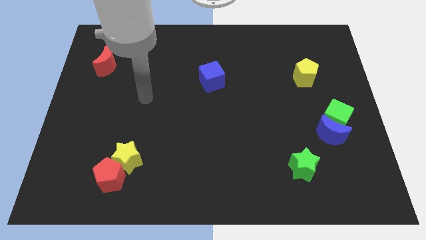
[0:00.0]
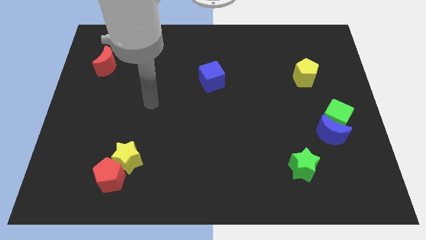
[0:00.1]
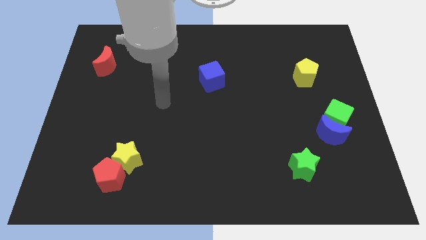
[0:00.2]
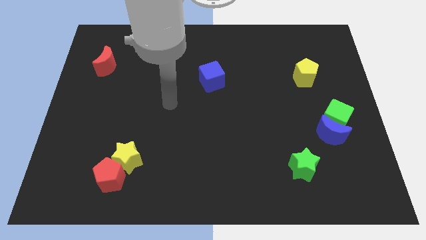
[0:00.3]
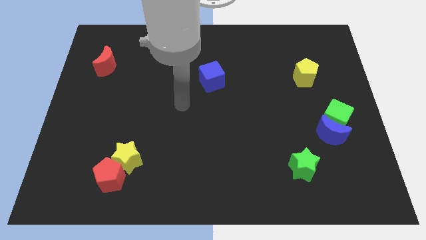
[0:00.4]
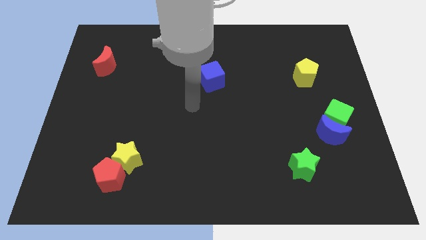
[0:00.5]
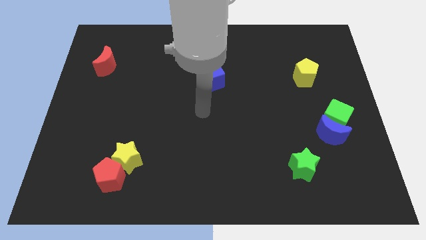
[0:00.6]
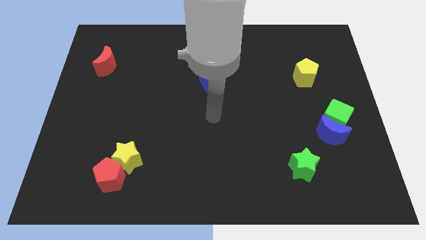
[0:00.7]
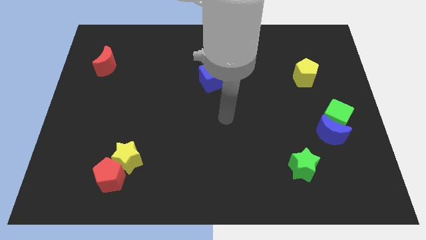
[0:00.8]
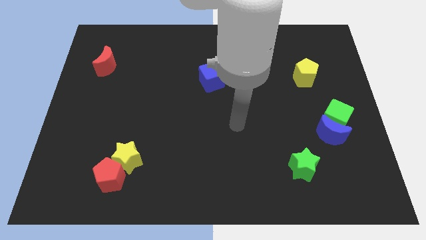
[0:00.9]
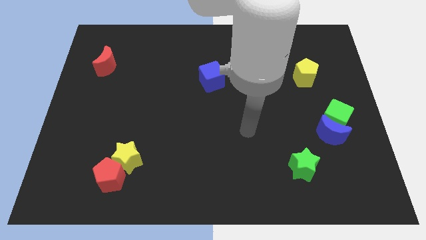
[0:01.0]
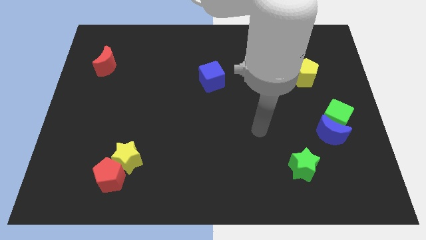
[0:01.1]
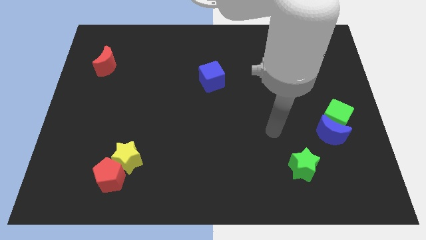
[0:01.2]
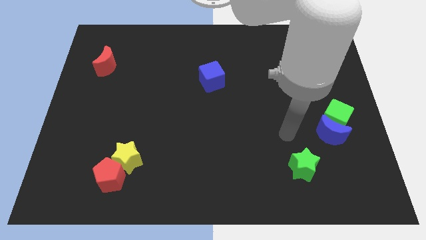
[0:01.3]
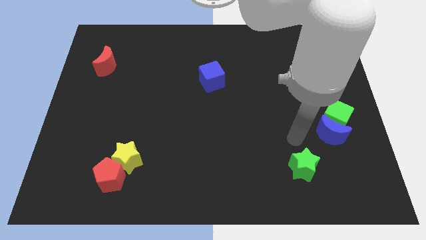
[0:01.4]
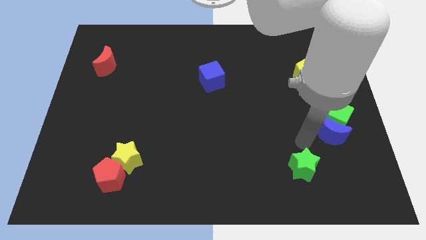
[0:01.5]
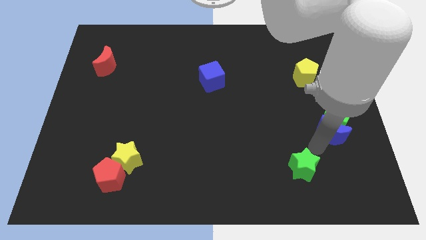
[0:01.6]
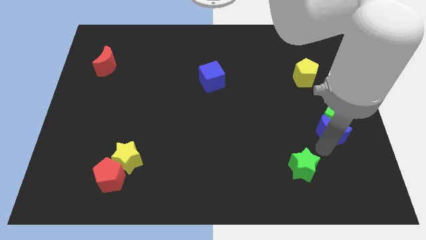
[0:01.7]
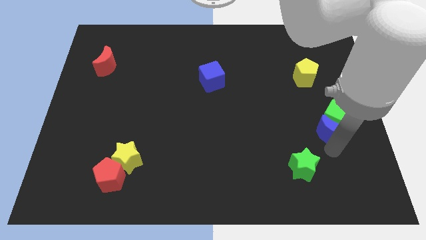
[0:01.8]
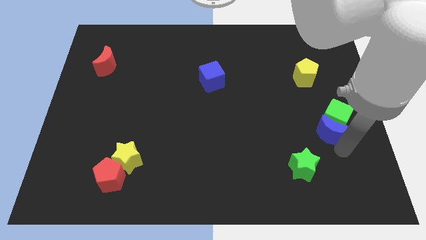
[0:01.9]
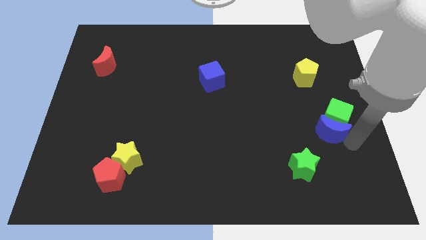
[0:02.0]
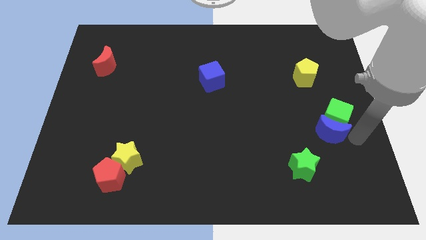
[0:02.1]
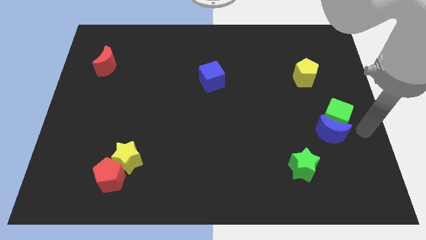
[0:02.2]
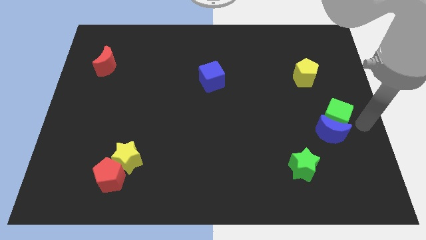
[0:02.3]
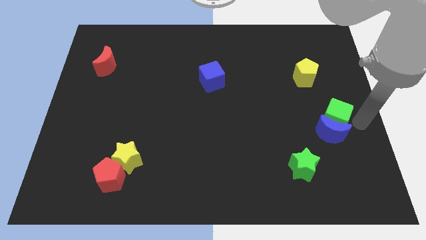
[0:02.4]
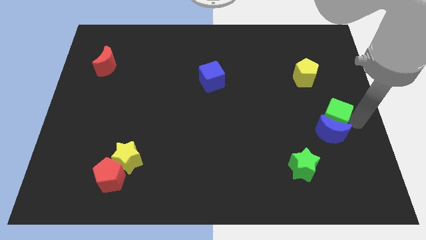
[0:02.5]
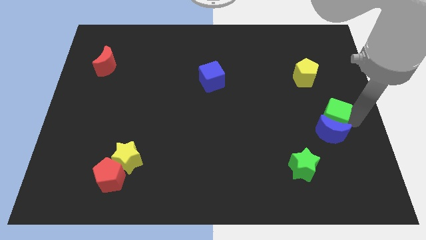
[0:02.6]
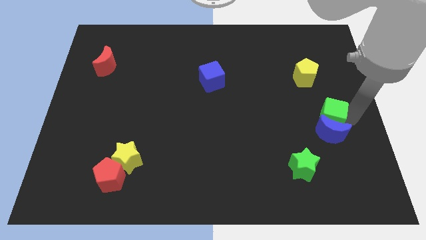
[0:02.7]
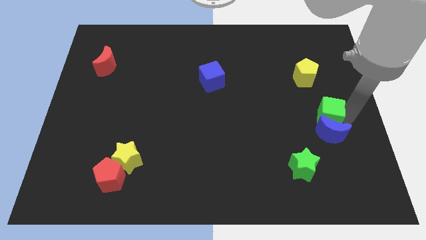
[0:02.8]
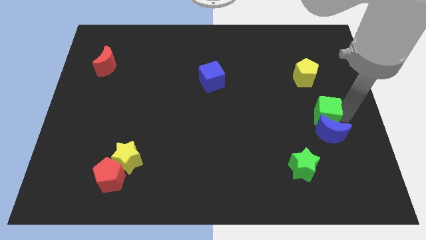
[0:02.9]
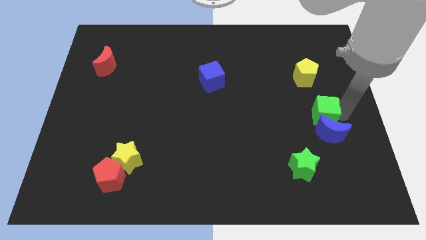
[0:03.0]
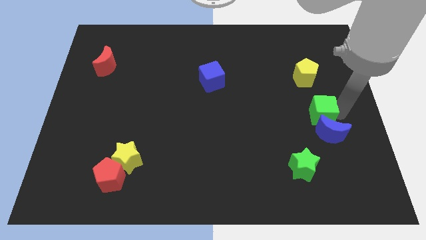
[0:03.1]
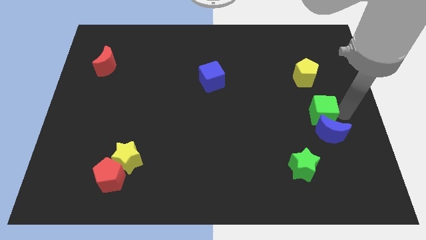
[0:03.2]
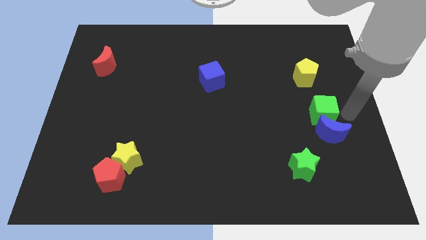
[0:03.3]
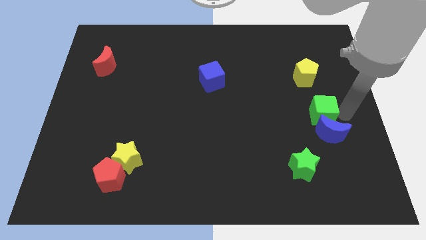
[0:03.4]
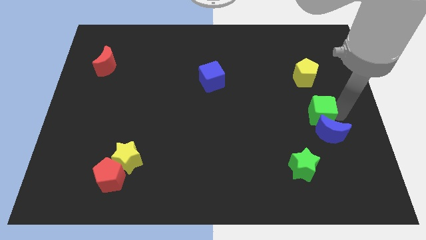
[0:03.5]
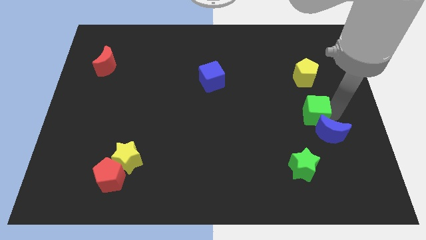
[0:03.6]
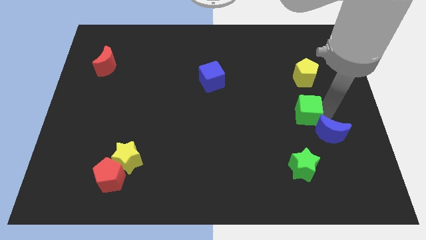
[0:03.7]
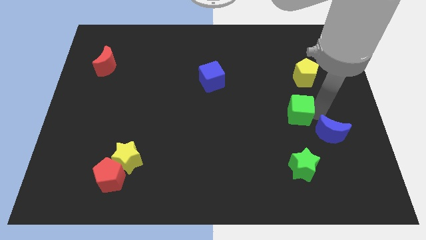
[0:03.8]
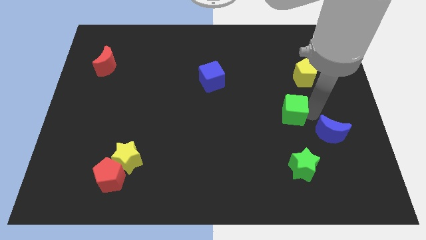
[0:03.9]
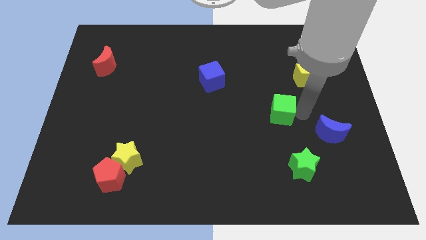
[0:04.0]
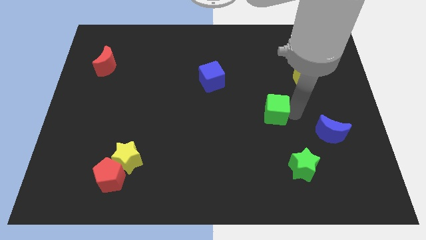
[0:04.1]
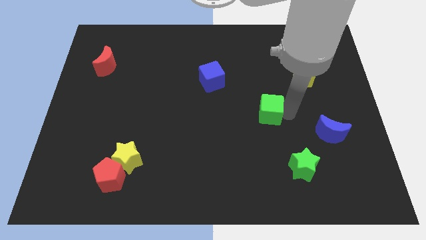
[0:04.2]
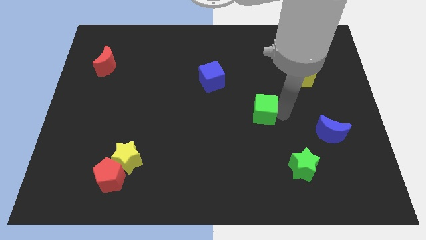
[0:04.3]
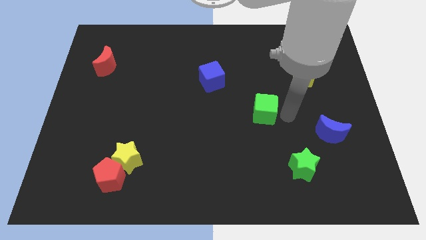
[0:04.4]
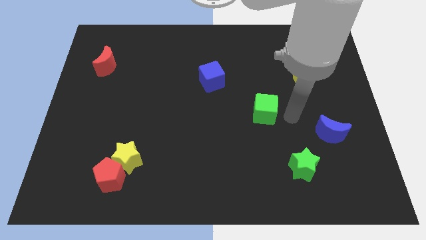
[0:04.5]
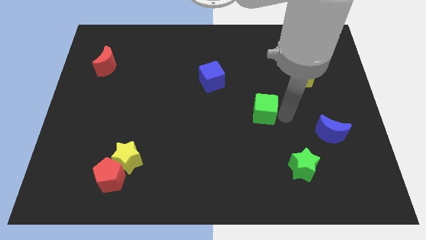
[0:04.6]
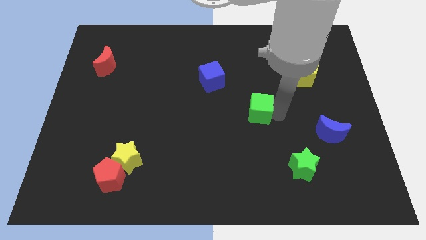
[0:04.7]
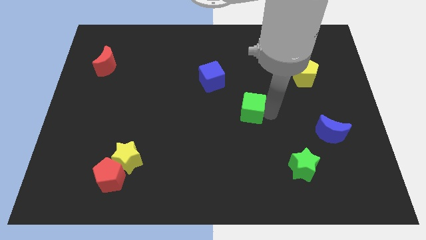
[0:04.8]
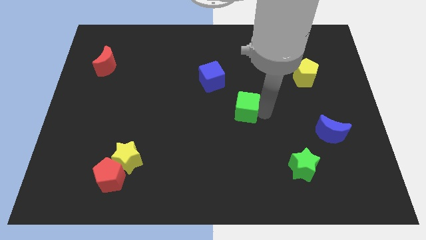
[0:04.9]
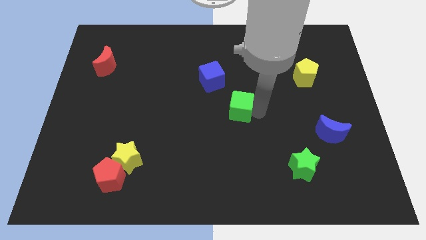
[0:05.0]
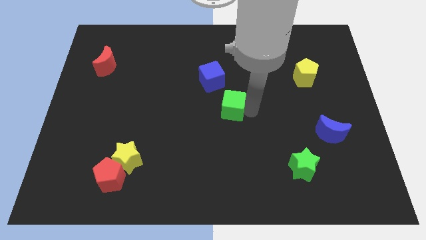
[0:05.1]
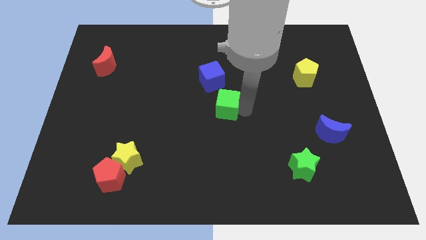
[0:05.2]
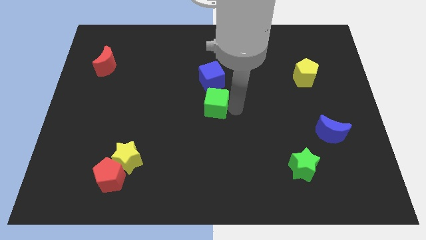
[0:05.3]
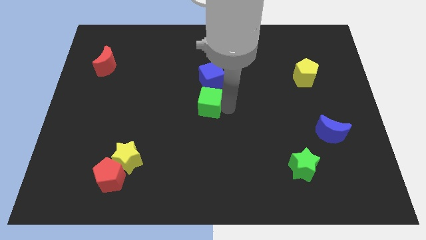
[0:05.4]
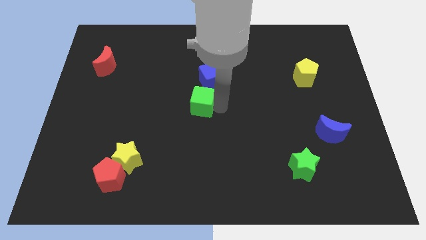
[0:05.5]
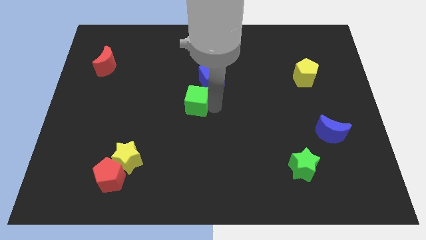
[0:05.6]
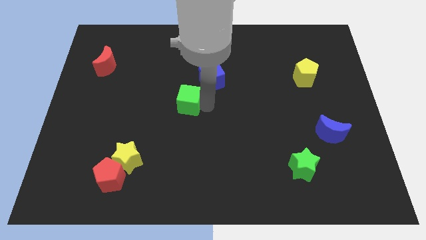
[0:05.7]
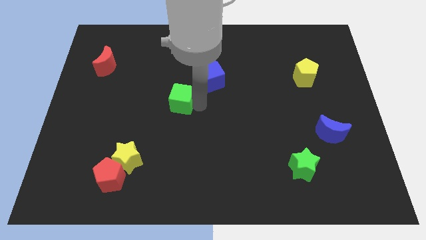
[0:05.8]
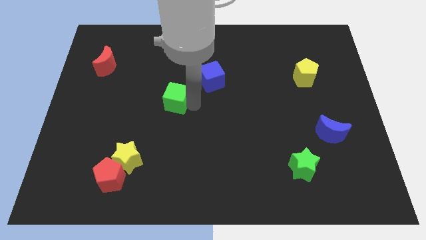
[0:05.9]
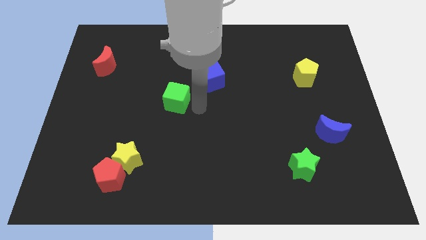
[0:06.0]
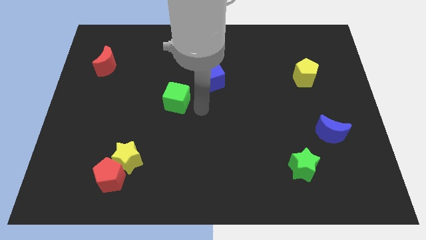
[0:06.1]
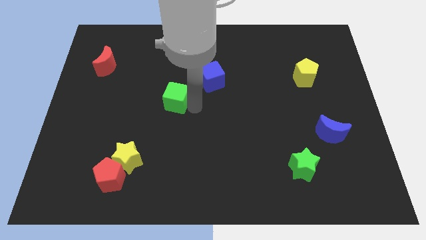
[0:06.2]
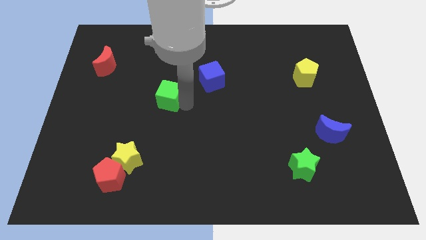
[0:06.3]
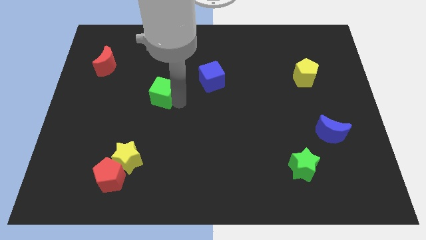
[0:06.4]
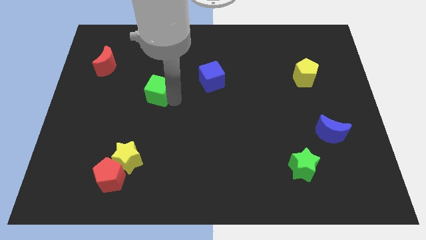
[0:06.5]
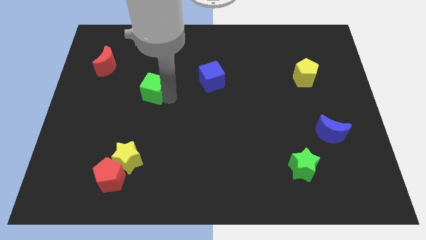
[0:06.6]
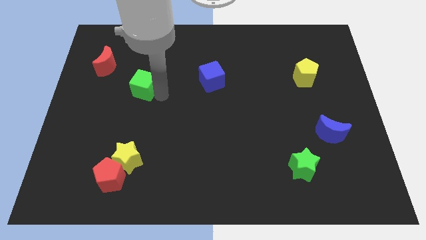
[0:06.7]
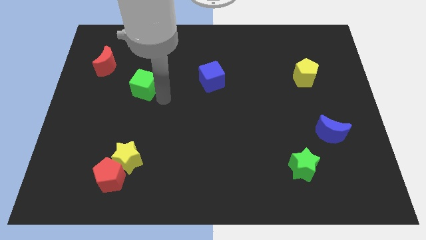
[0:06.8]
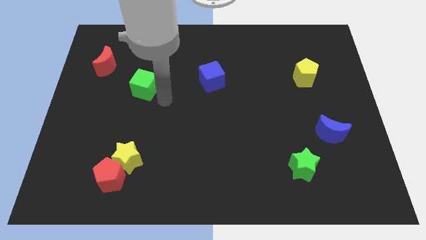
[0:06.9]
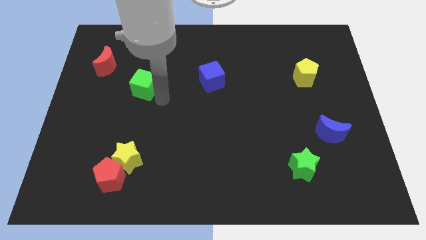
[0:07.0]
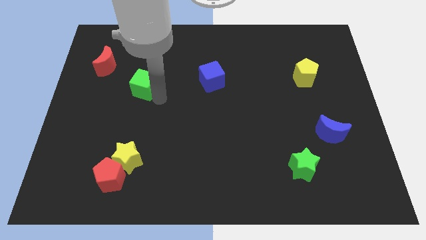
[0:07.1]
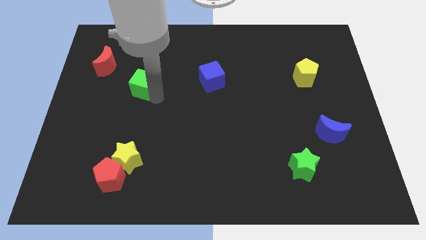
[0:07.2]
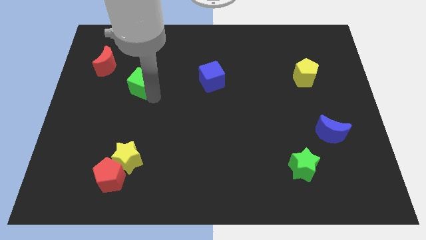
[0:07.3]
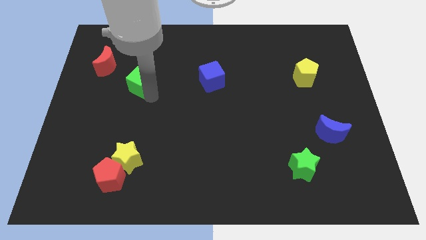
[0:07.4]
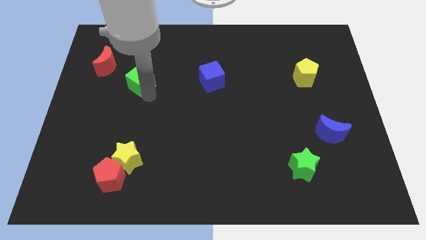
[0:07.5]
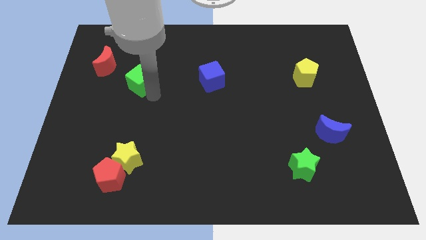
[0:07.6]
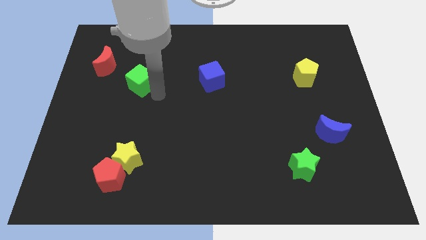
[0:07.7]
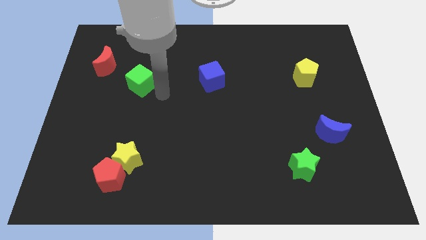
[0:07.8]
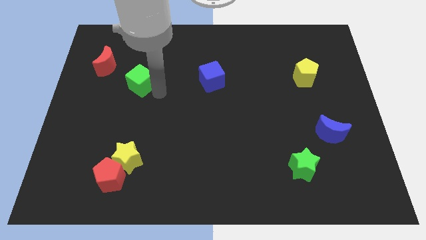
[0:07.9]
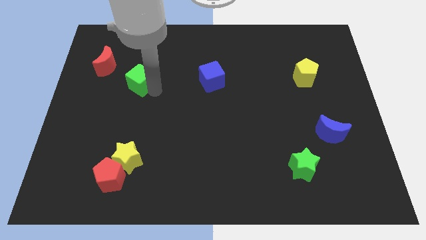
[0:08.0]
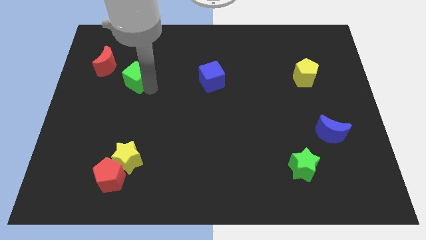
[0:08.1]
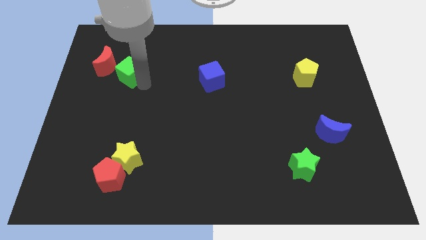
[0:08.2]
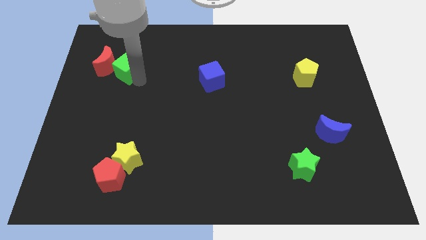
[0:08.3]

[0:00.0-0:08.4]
move the green cube next to the red moon
